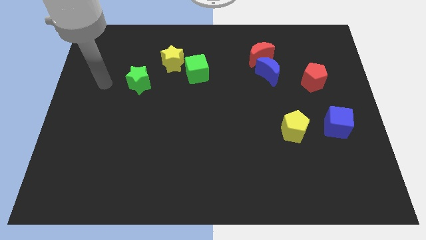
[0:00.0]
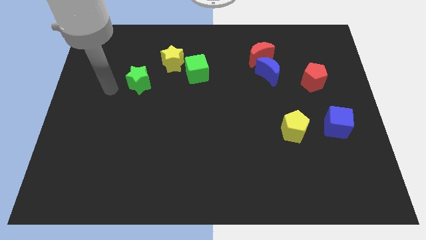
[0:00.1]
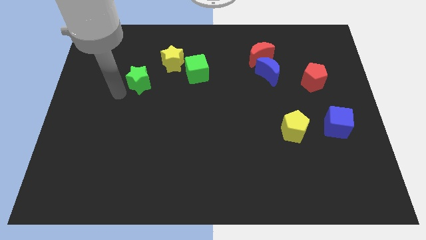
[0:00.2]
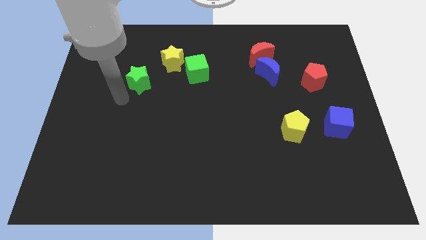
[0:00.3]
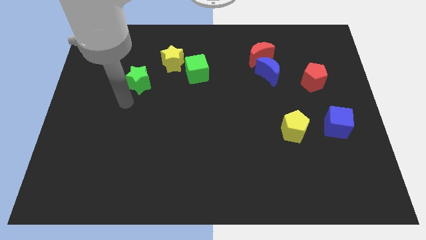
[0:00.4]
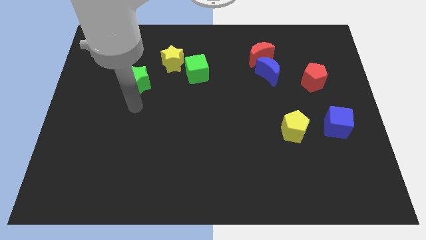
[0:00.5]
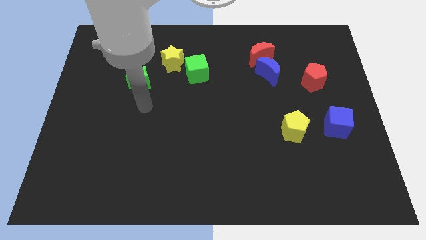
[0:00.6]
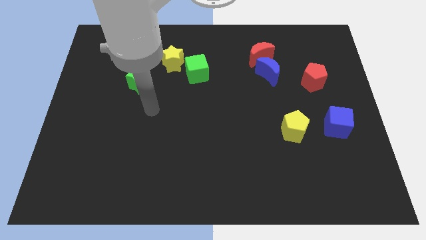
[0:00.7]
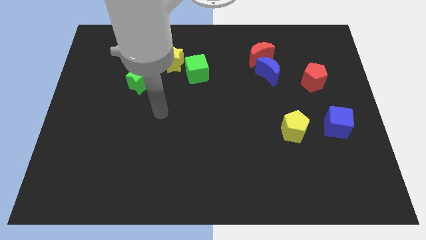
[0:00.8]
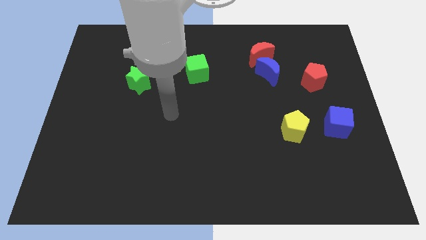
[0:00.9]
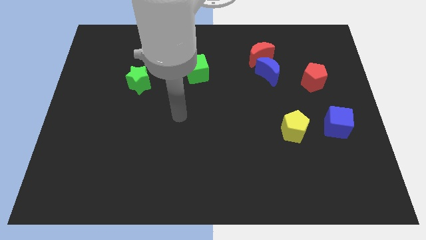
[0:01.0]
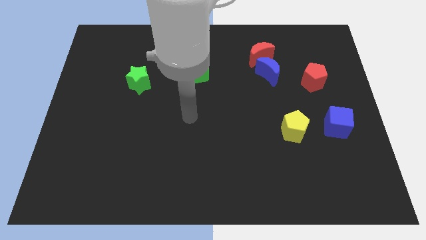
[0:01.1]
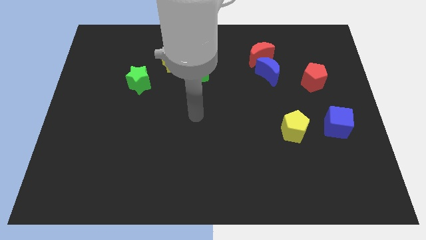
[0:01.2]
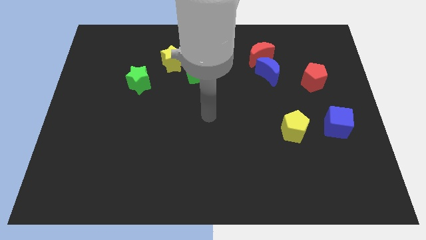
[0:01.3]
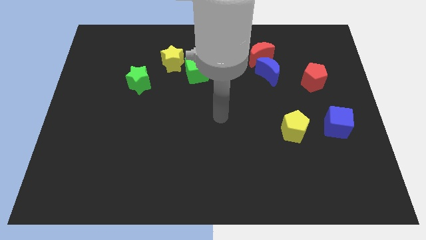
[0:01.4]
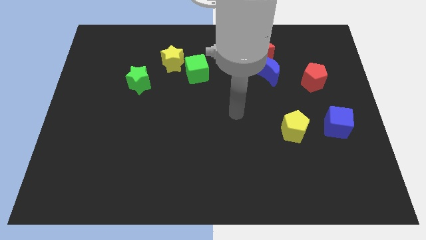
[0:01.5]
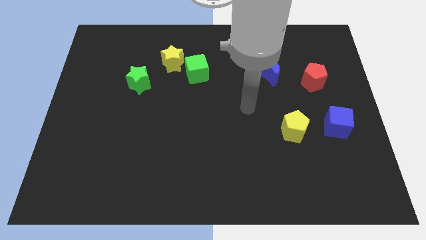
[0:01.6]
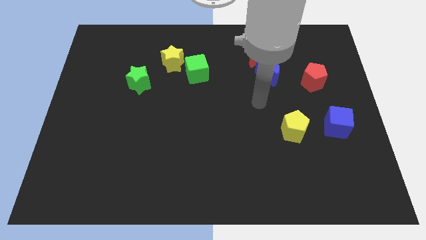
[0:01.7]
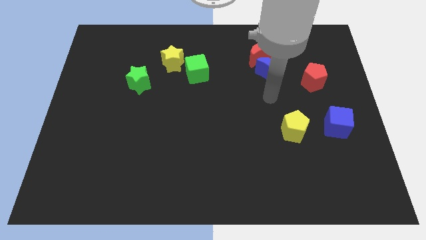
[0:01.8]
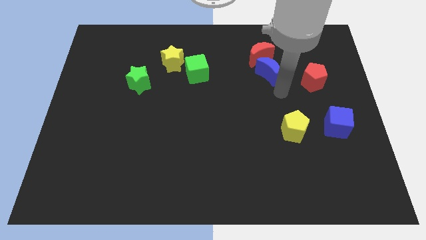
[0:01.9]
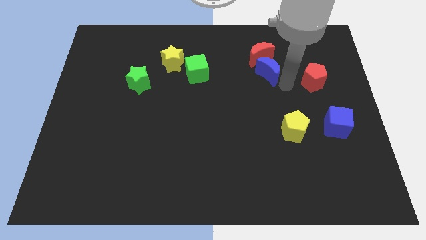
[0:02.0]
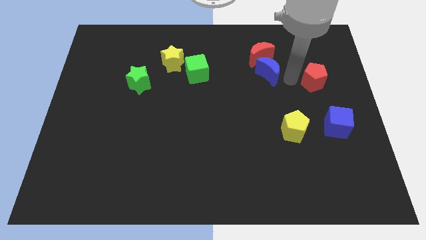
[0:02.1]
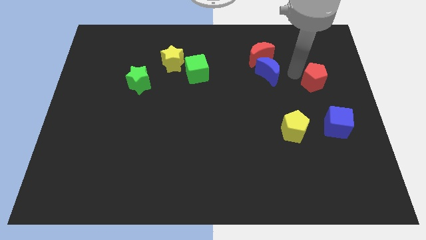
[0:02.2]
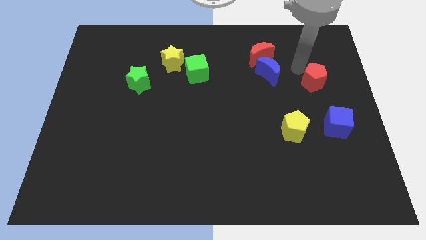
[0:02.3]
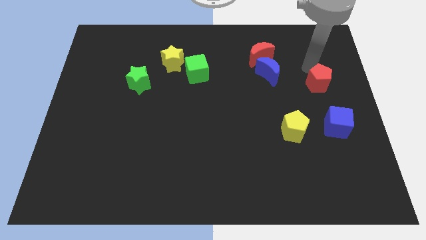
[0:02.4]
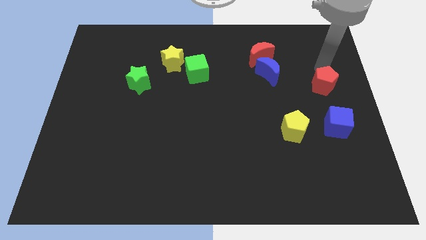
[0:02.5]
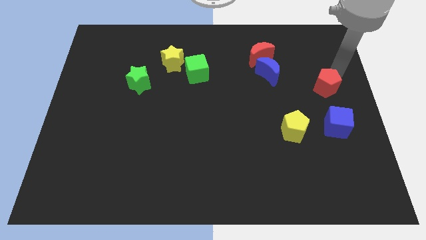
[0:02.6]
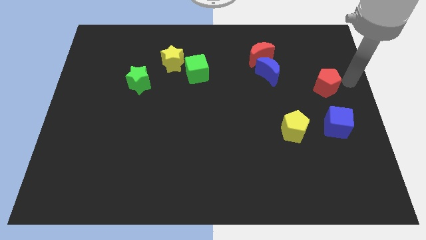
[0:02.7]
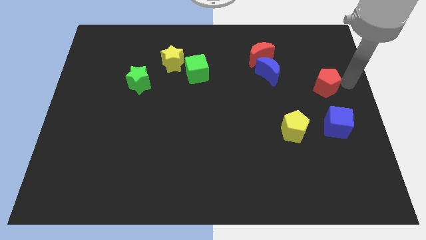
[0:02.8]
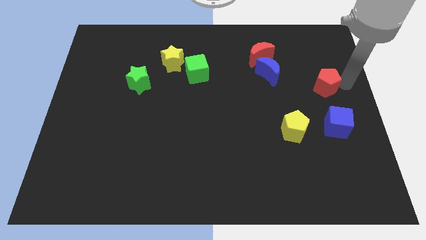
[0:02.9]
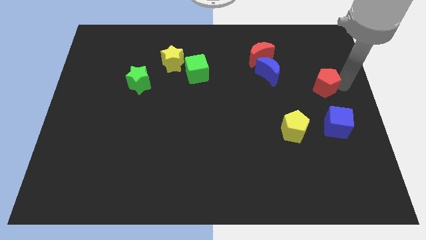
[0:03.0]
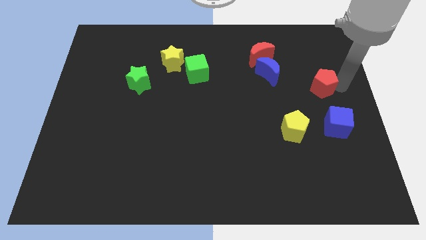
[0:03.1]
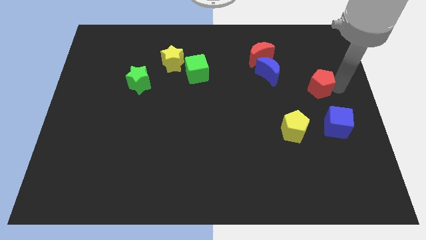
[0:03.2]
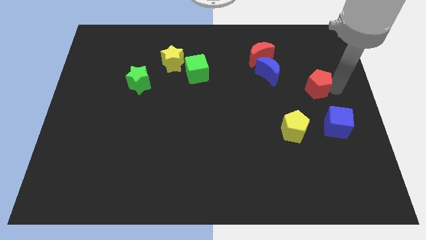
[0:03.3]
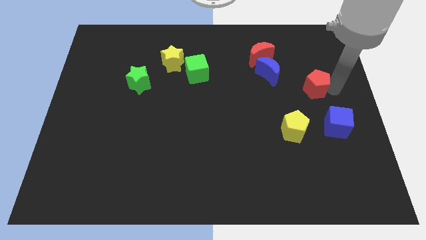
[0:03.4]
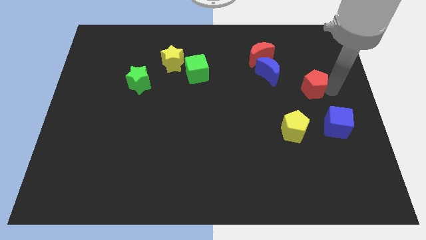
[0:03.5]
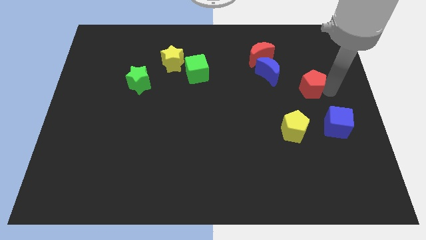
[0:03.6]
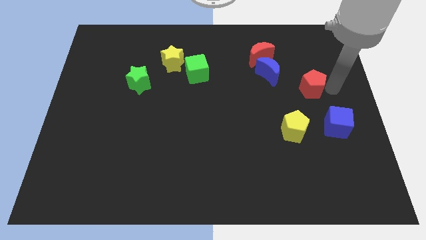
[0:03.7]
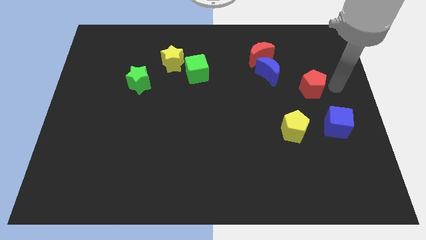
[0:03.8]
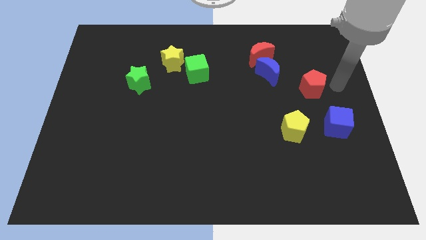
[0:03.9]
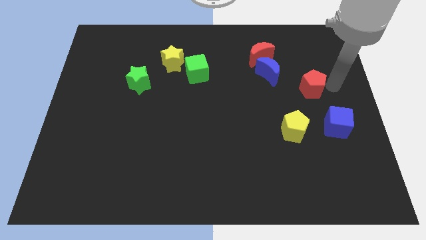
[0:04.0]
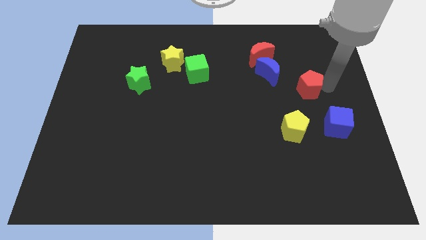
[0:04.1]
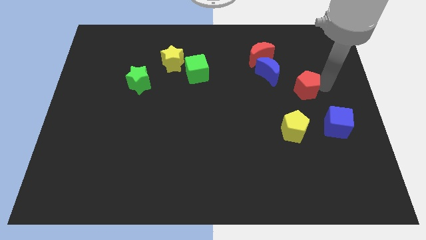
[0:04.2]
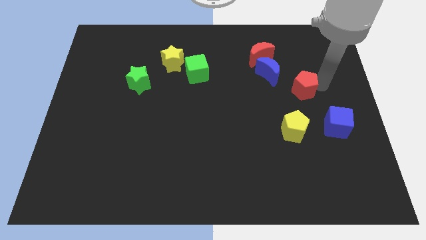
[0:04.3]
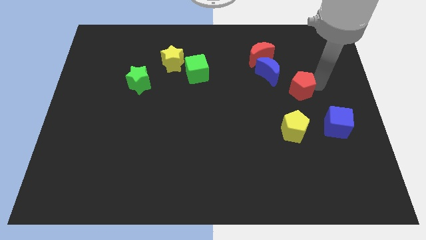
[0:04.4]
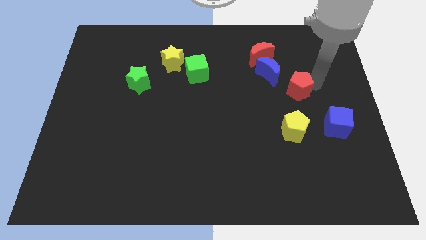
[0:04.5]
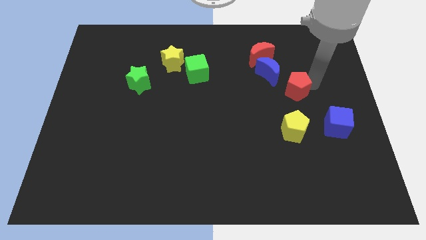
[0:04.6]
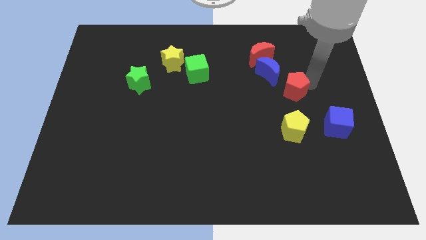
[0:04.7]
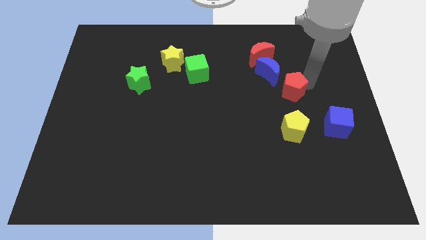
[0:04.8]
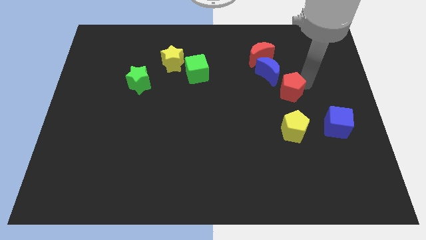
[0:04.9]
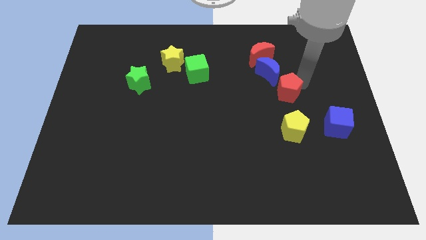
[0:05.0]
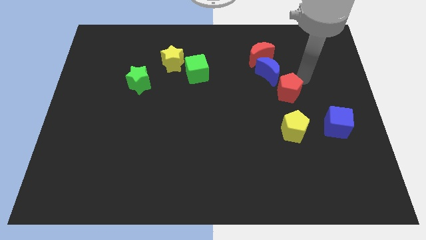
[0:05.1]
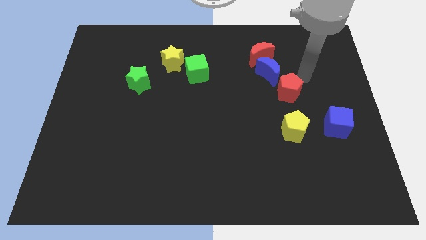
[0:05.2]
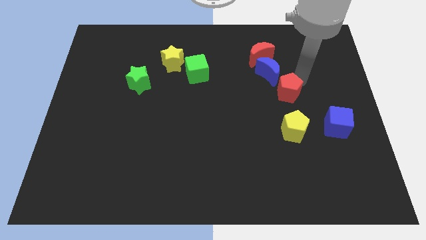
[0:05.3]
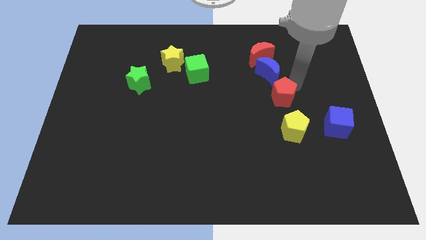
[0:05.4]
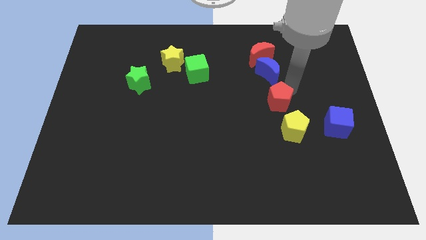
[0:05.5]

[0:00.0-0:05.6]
move the red pentagon to the top left side of the yellow pentagon

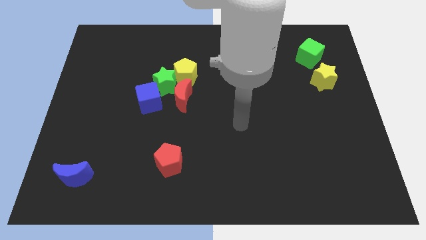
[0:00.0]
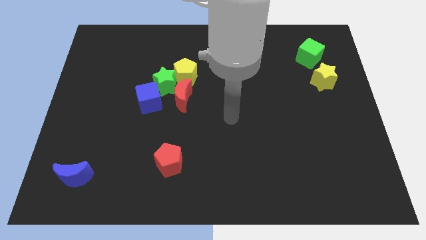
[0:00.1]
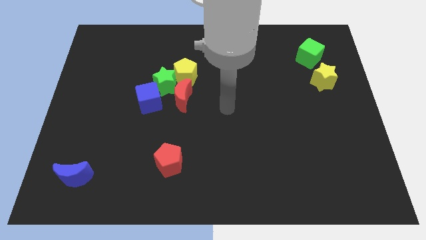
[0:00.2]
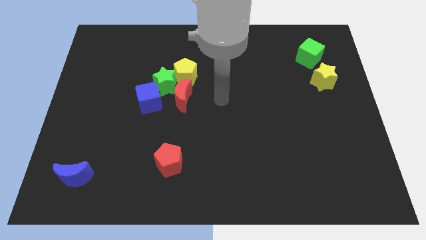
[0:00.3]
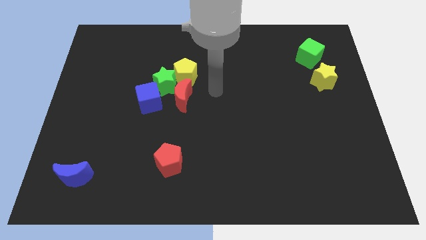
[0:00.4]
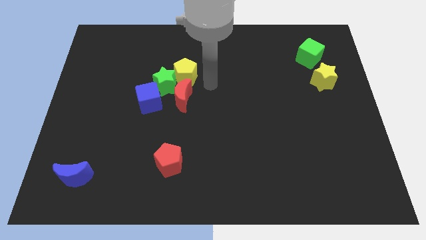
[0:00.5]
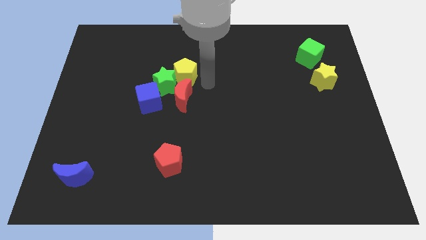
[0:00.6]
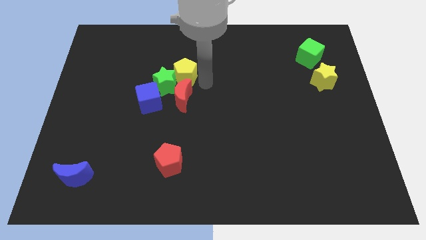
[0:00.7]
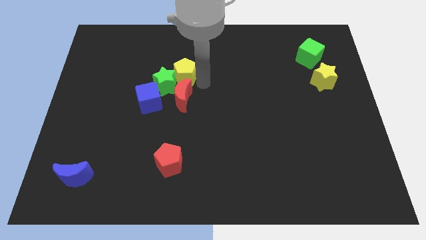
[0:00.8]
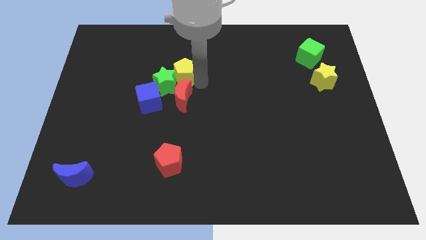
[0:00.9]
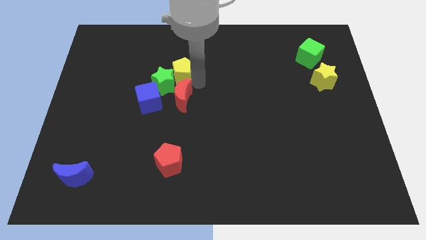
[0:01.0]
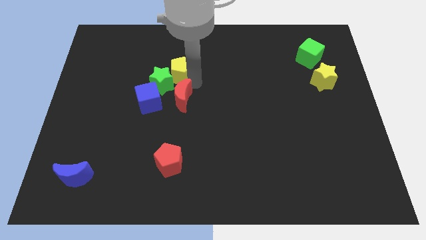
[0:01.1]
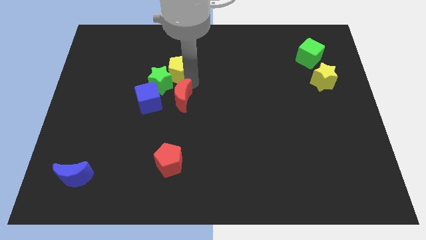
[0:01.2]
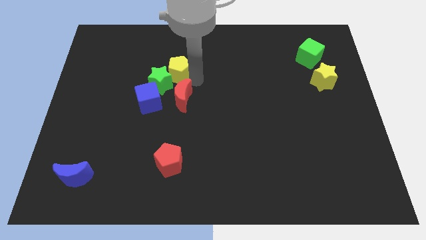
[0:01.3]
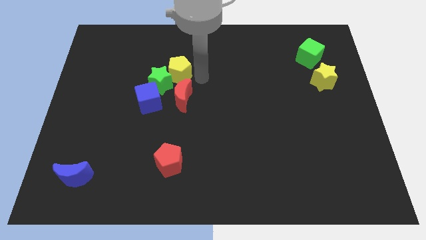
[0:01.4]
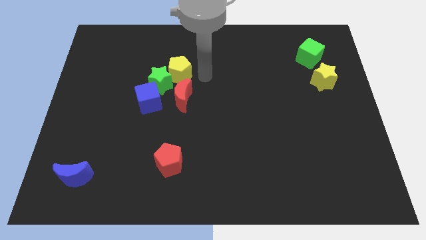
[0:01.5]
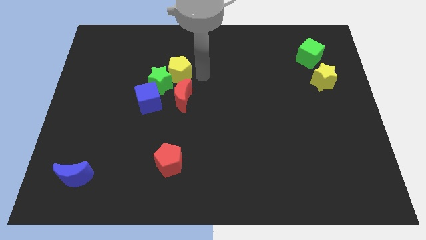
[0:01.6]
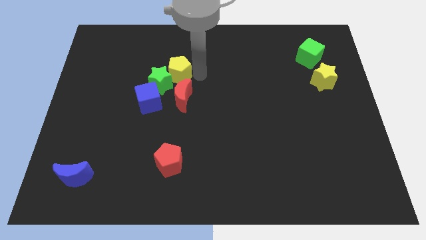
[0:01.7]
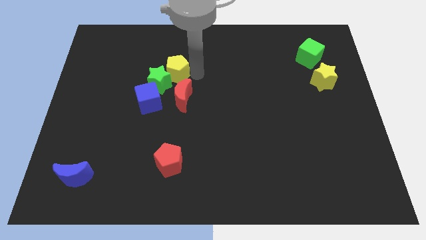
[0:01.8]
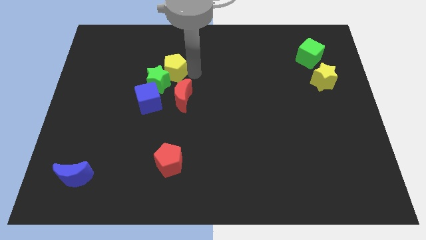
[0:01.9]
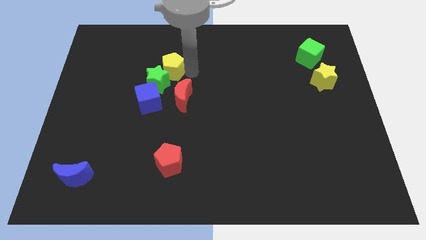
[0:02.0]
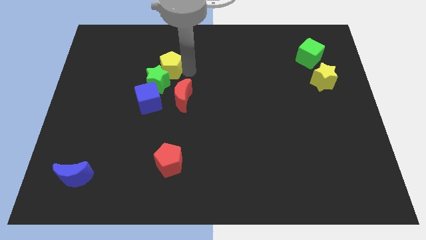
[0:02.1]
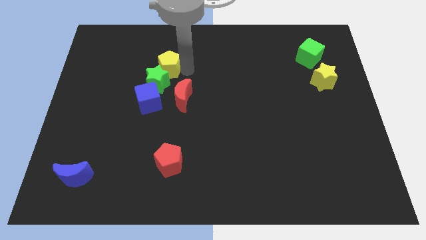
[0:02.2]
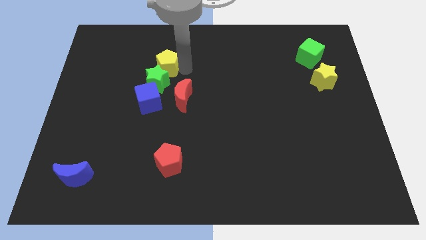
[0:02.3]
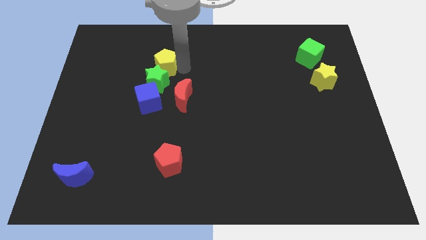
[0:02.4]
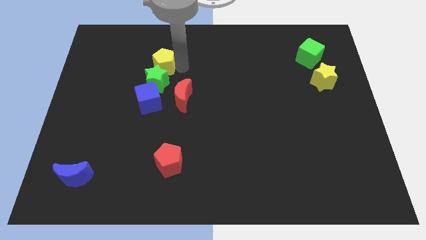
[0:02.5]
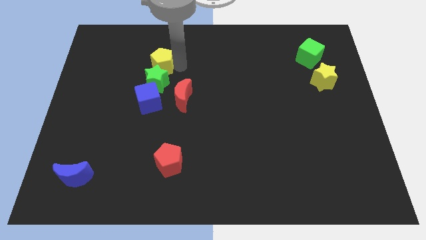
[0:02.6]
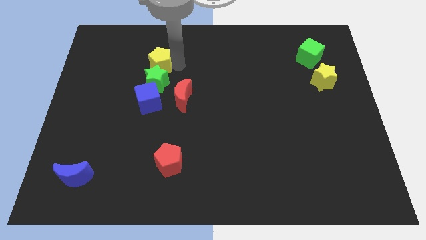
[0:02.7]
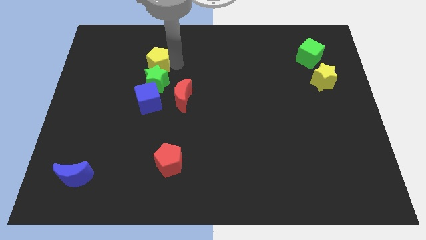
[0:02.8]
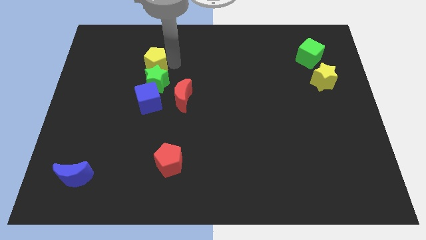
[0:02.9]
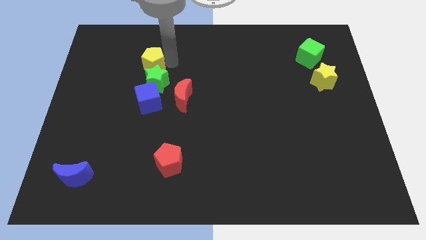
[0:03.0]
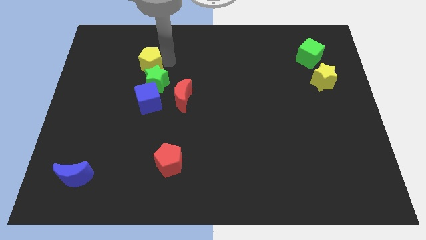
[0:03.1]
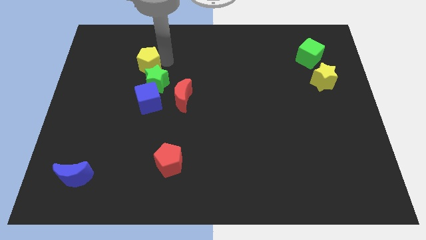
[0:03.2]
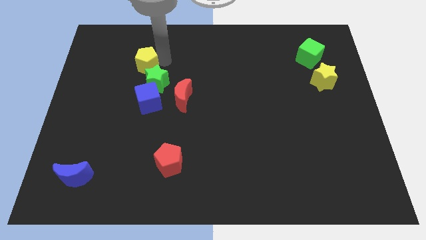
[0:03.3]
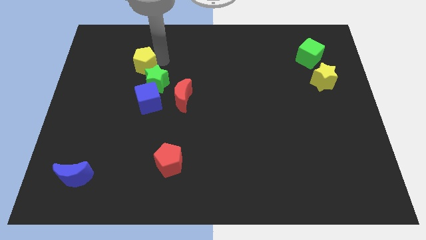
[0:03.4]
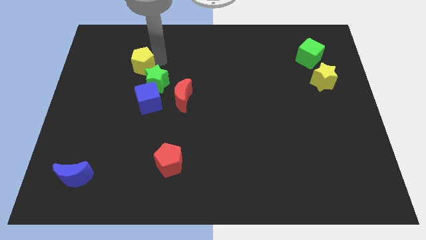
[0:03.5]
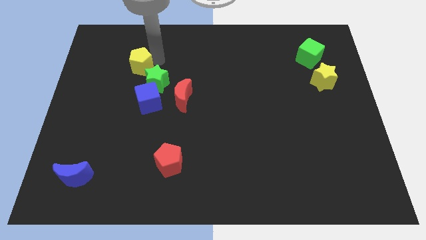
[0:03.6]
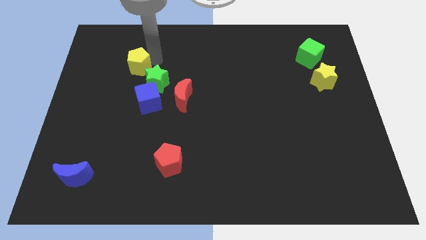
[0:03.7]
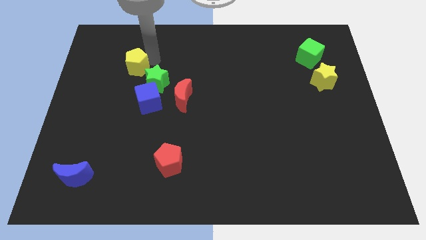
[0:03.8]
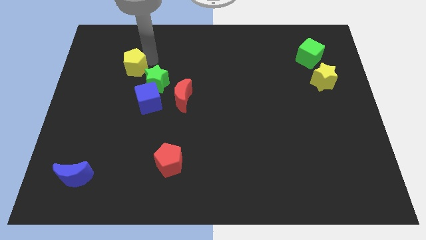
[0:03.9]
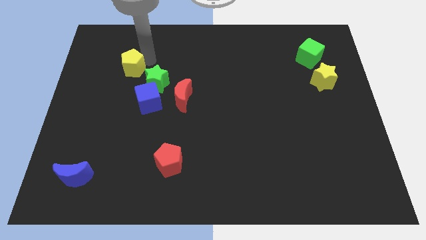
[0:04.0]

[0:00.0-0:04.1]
push the yellow pentagon left of the green star
